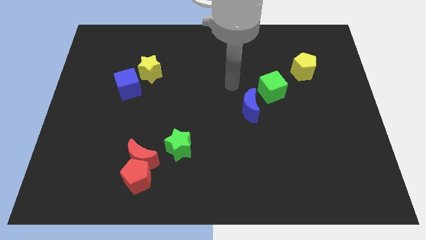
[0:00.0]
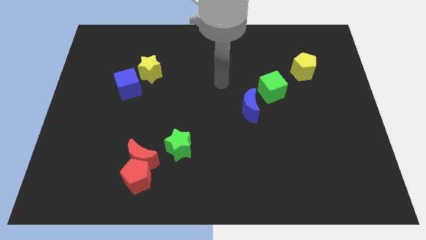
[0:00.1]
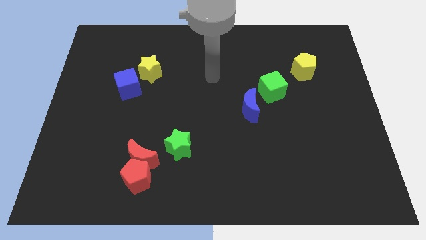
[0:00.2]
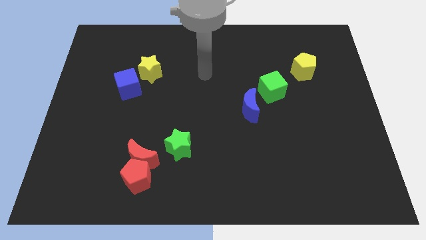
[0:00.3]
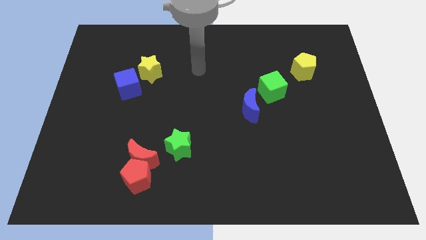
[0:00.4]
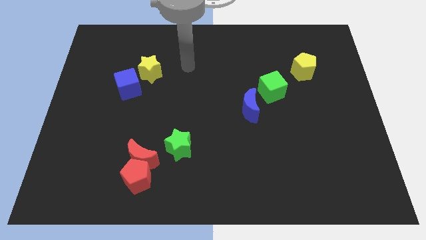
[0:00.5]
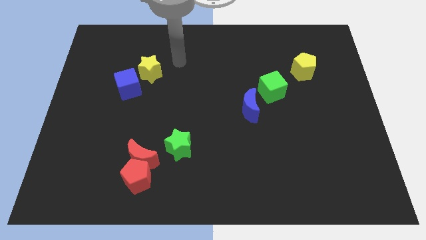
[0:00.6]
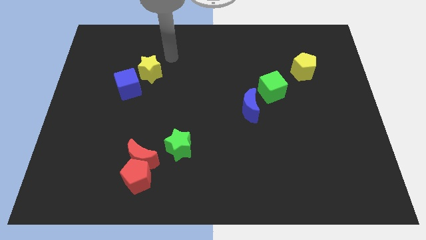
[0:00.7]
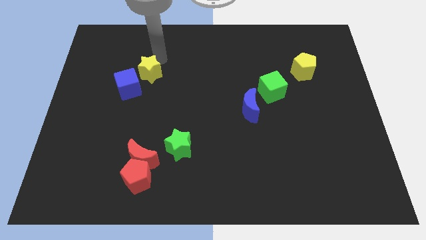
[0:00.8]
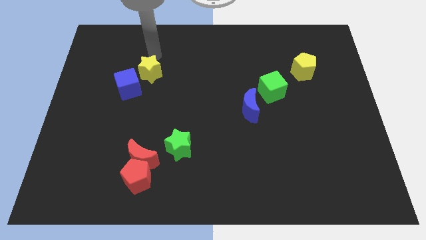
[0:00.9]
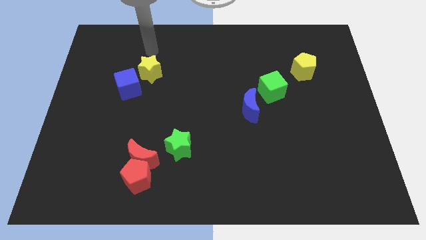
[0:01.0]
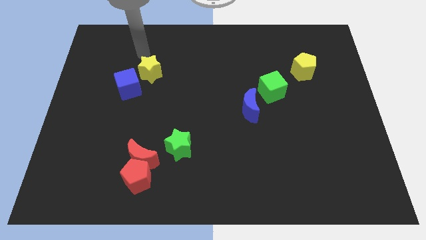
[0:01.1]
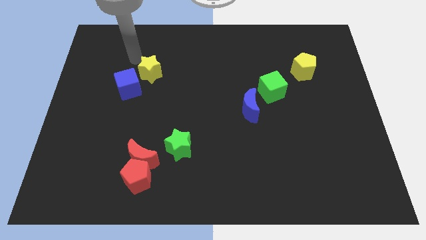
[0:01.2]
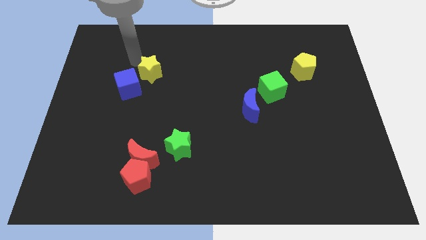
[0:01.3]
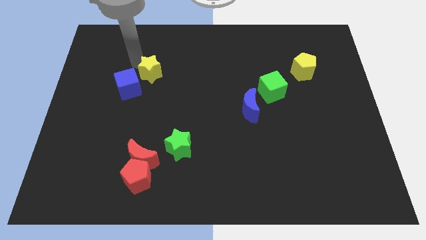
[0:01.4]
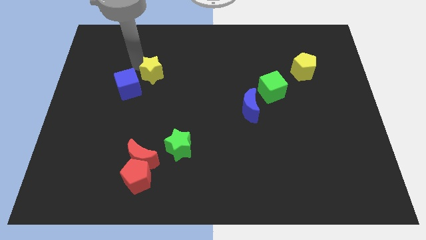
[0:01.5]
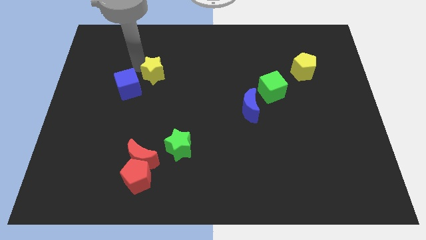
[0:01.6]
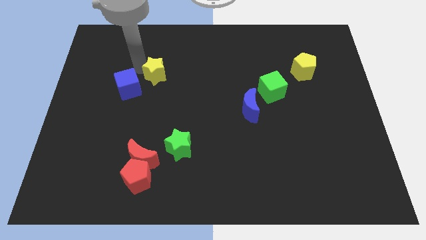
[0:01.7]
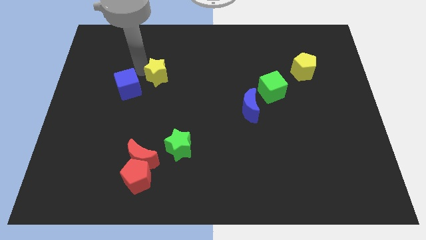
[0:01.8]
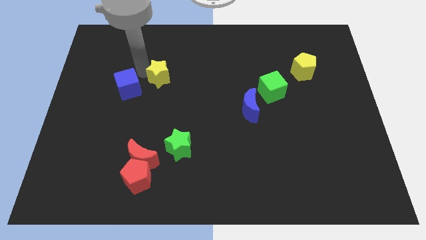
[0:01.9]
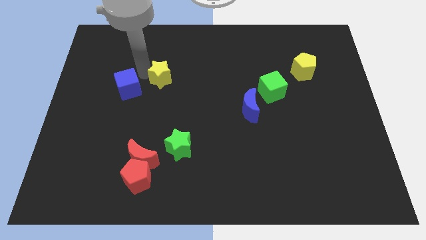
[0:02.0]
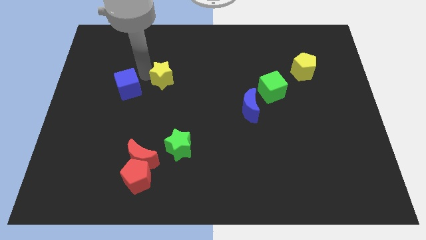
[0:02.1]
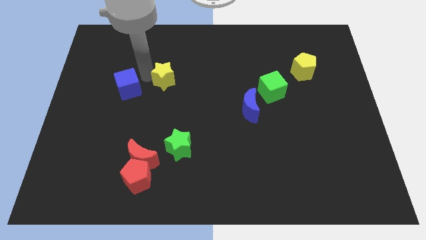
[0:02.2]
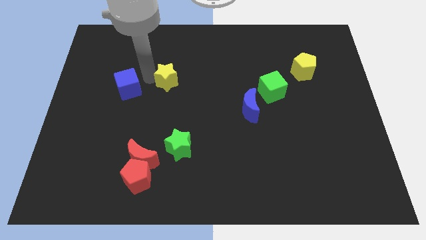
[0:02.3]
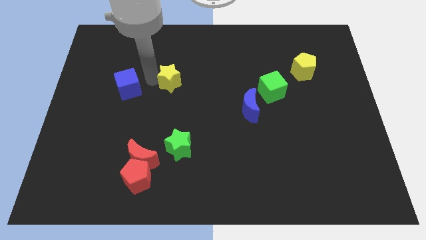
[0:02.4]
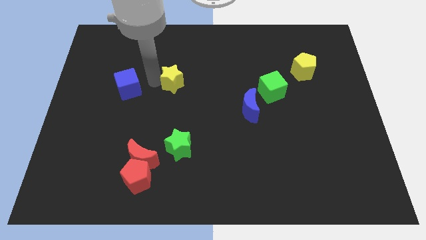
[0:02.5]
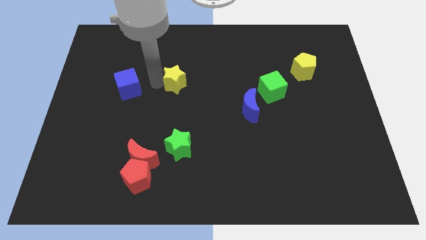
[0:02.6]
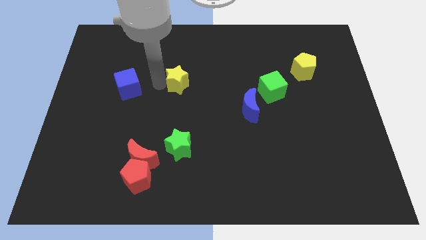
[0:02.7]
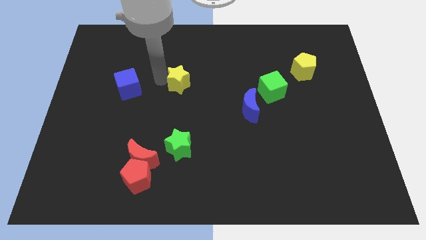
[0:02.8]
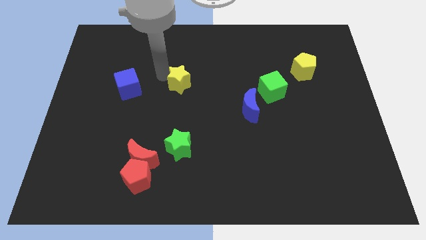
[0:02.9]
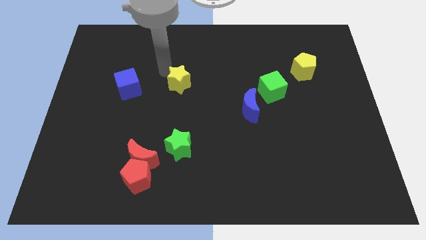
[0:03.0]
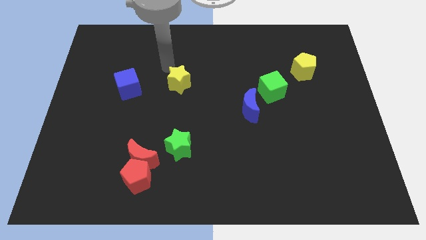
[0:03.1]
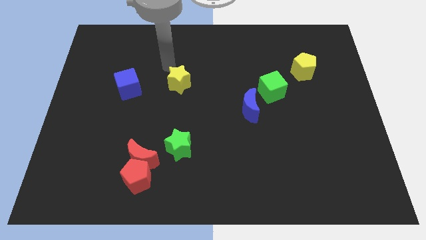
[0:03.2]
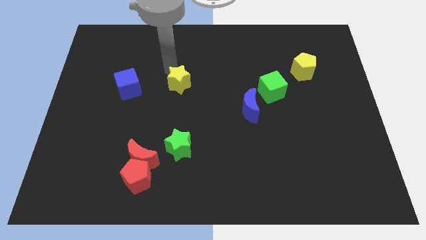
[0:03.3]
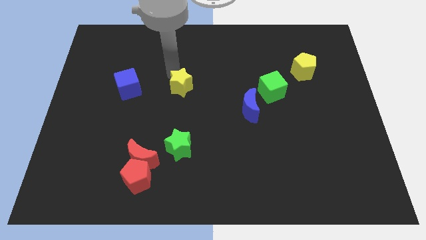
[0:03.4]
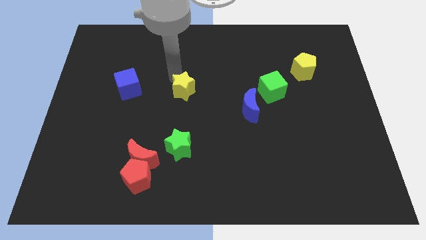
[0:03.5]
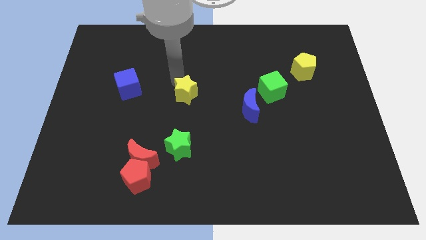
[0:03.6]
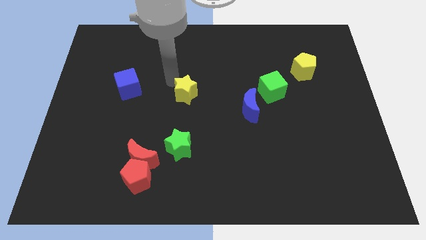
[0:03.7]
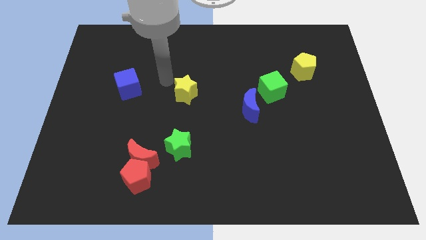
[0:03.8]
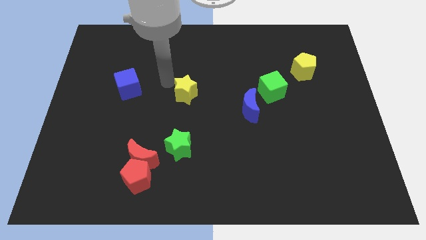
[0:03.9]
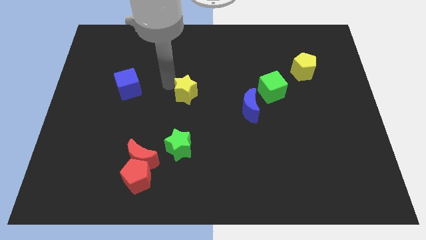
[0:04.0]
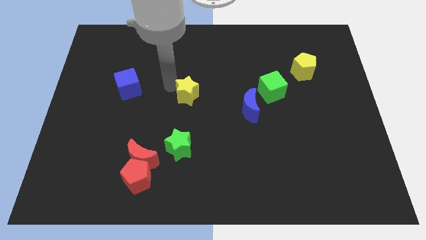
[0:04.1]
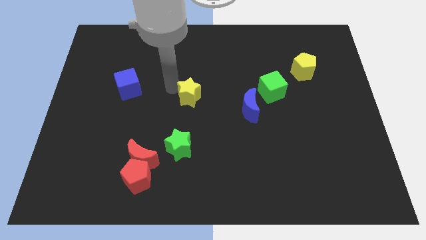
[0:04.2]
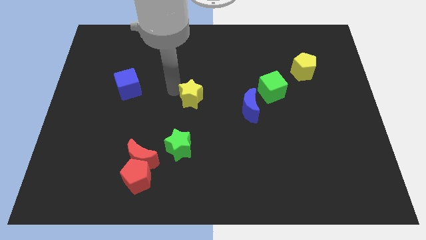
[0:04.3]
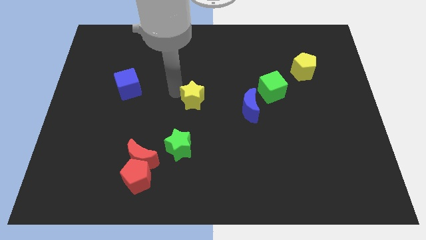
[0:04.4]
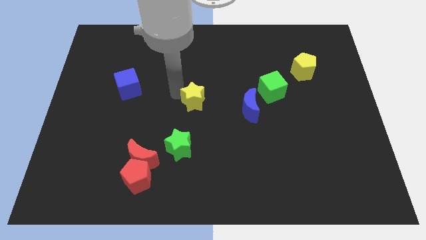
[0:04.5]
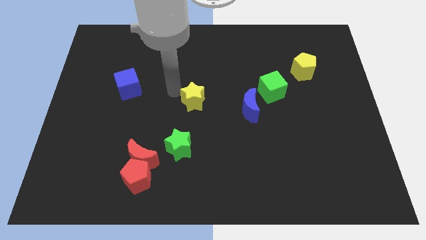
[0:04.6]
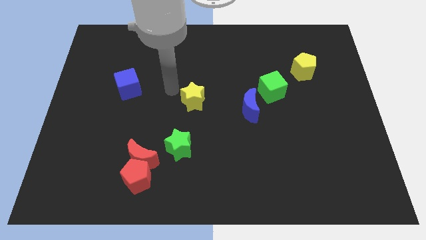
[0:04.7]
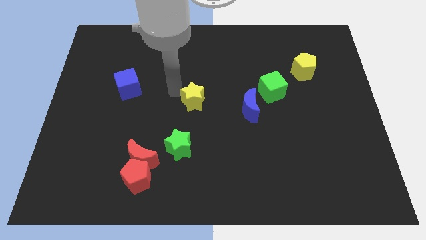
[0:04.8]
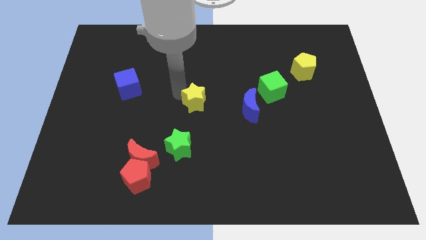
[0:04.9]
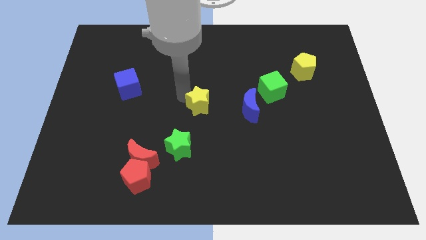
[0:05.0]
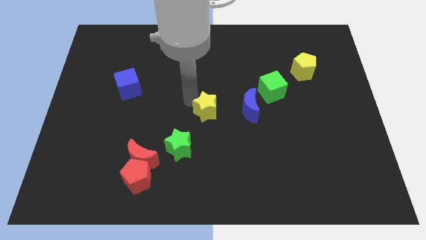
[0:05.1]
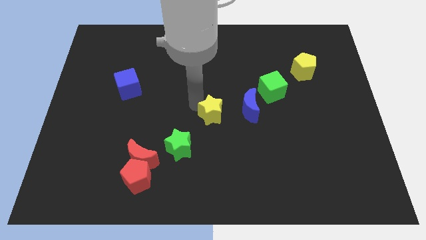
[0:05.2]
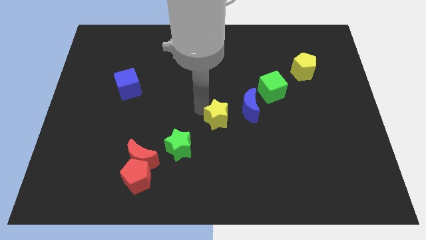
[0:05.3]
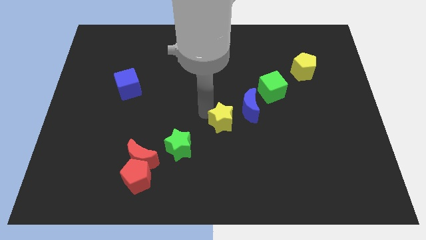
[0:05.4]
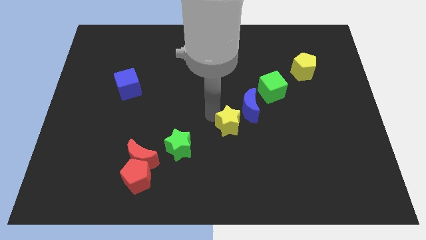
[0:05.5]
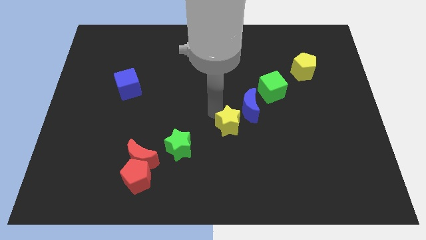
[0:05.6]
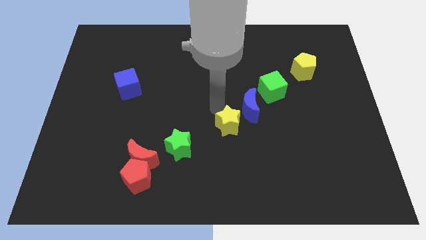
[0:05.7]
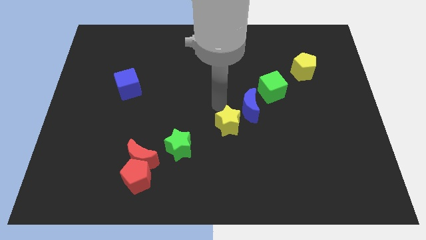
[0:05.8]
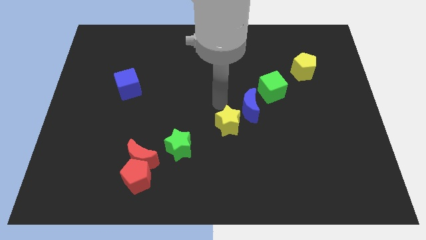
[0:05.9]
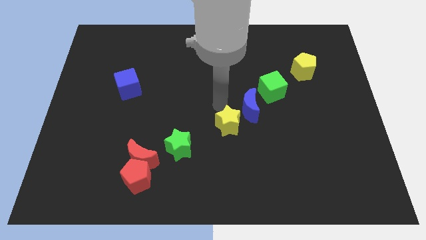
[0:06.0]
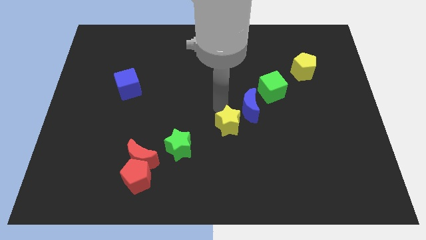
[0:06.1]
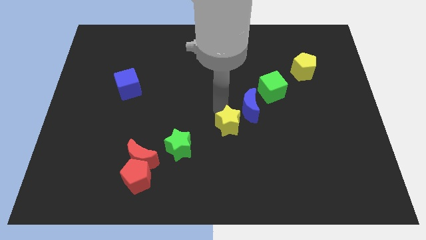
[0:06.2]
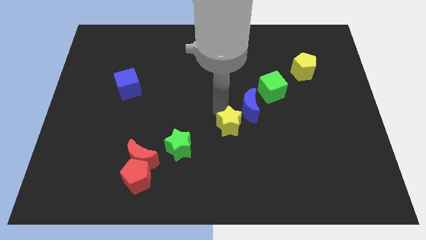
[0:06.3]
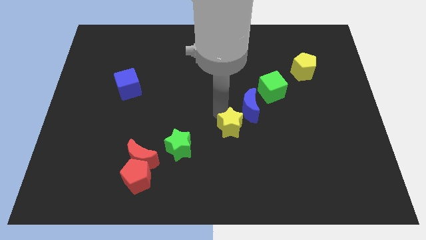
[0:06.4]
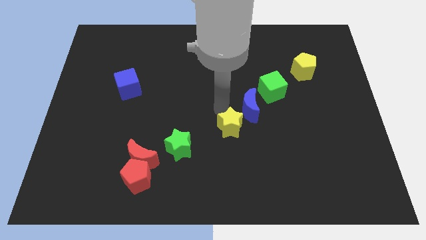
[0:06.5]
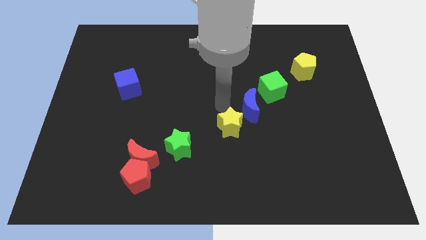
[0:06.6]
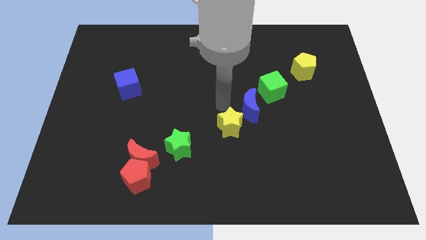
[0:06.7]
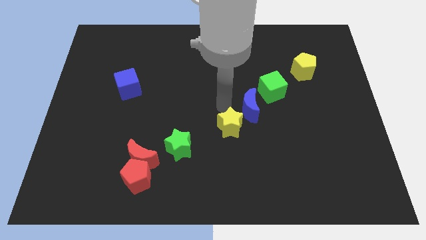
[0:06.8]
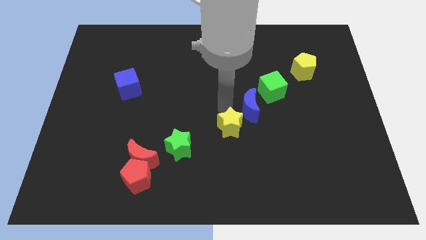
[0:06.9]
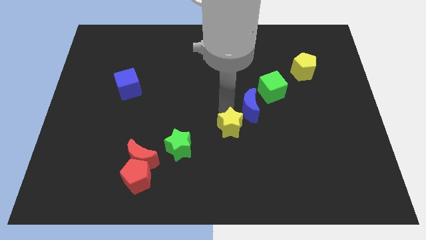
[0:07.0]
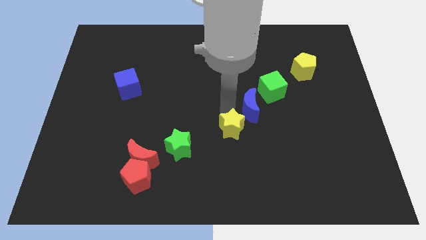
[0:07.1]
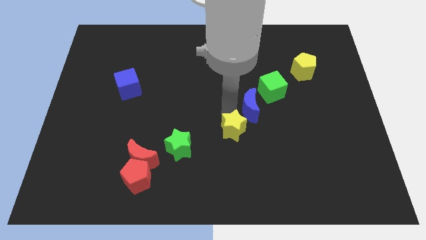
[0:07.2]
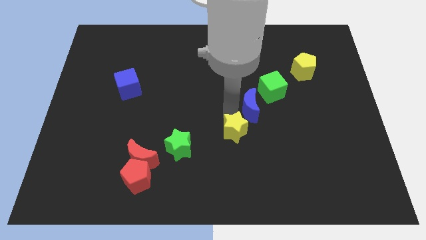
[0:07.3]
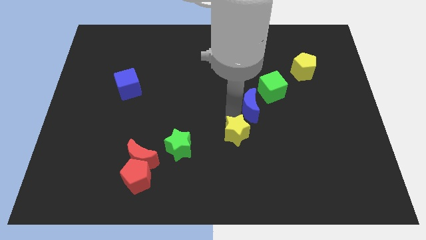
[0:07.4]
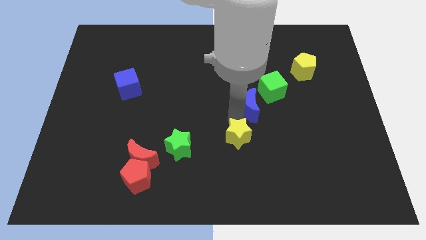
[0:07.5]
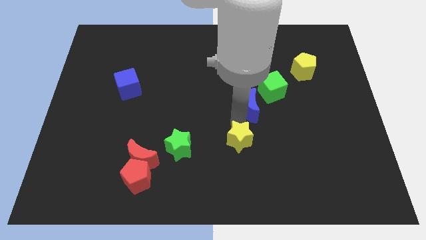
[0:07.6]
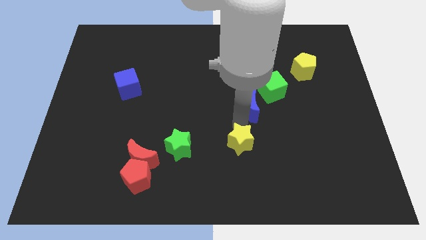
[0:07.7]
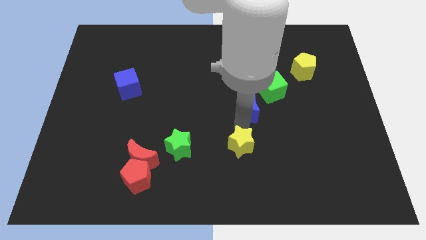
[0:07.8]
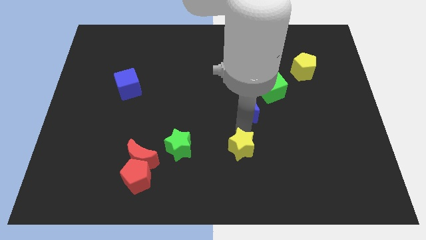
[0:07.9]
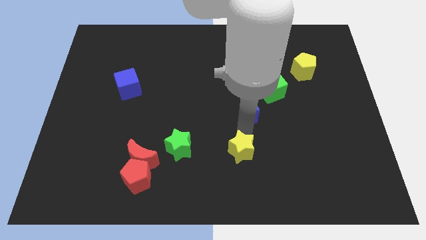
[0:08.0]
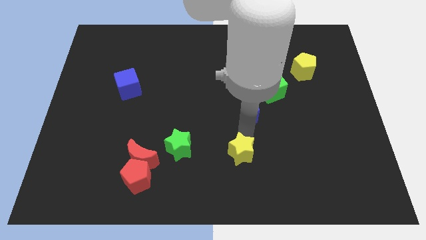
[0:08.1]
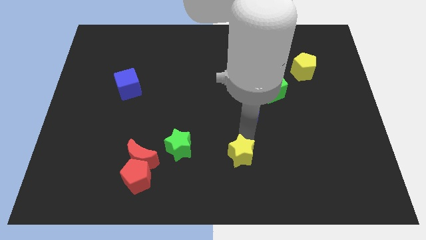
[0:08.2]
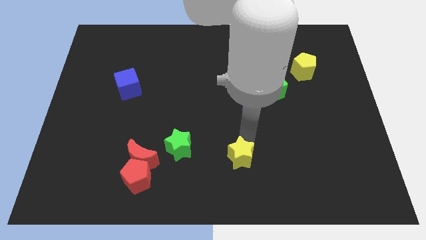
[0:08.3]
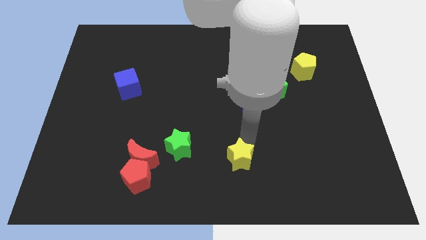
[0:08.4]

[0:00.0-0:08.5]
push the yellow star to the bottom
